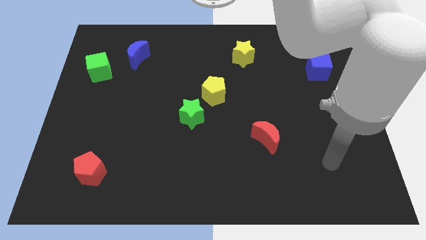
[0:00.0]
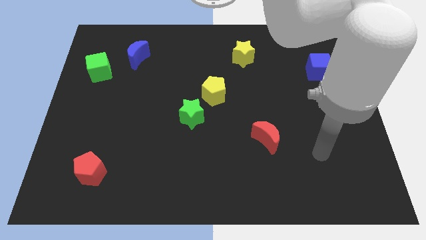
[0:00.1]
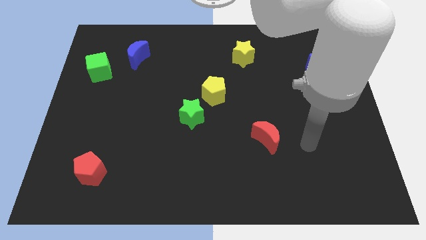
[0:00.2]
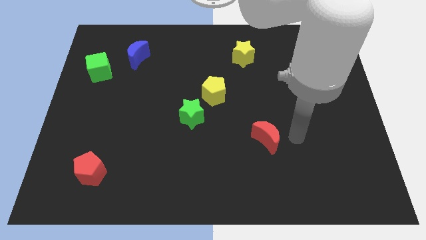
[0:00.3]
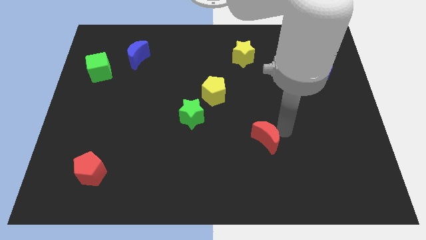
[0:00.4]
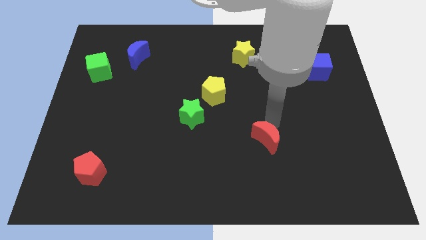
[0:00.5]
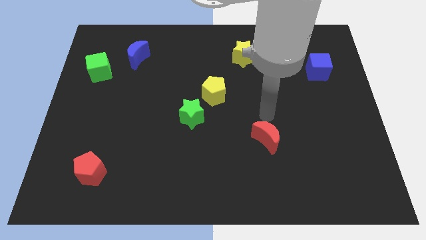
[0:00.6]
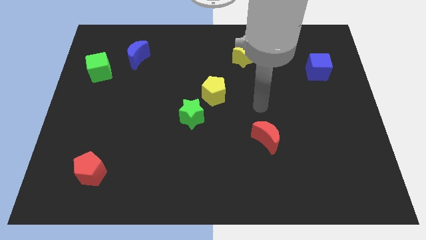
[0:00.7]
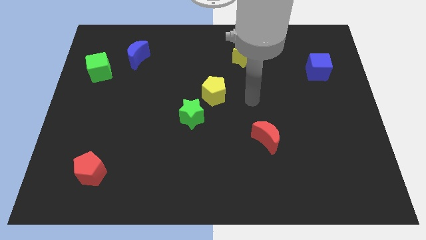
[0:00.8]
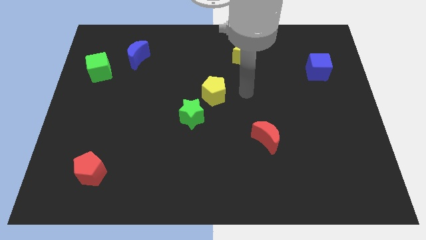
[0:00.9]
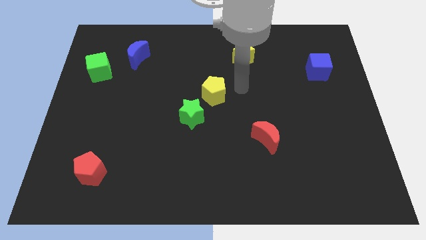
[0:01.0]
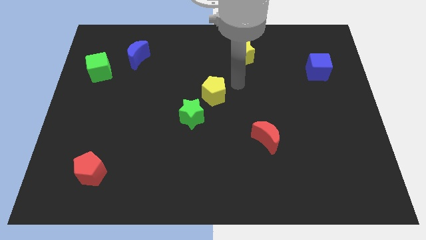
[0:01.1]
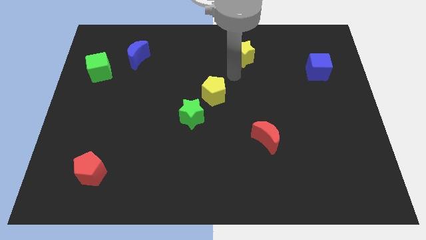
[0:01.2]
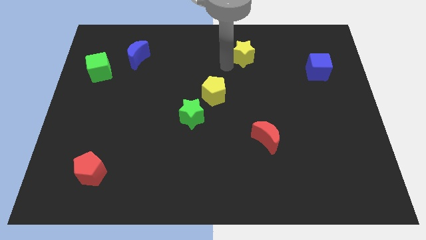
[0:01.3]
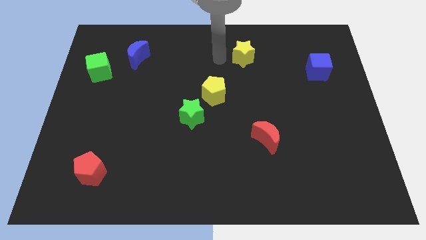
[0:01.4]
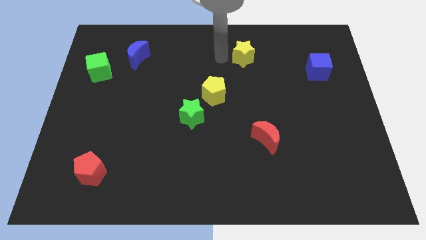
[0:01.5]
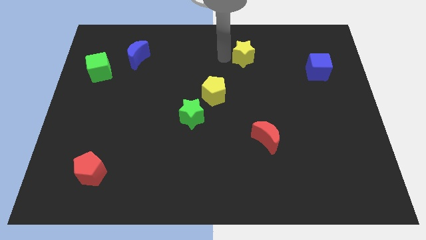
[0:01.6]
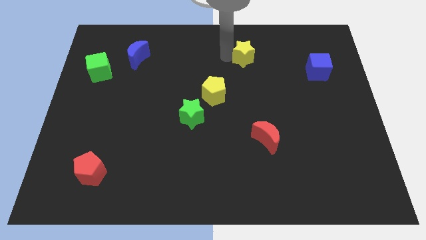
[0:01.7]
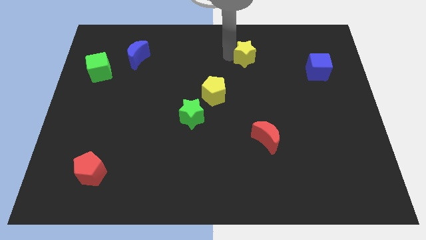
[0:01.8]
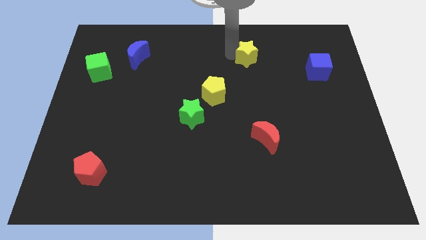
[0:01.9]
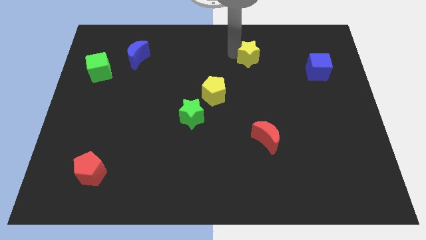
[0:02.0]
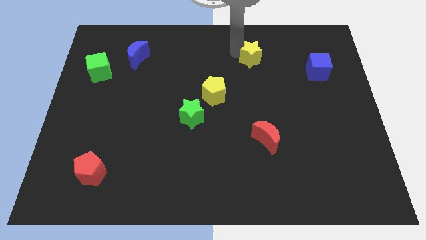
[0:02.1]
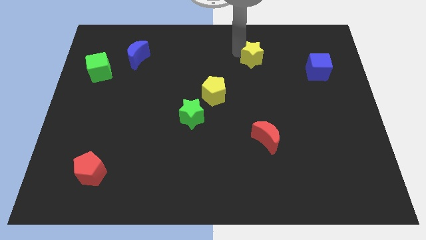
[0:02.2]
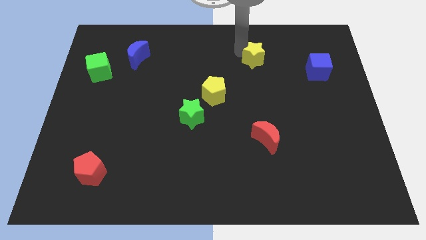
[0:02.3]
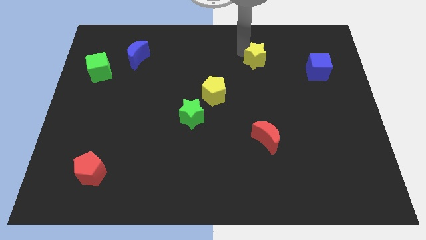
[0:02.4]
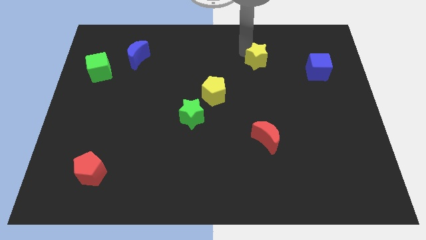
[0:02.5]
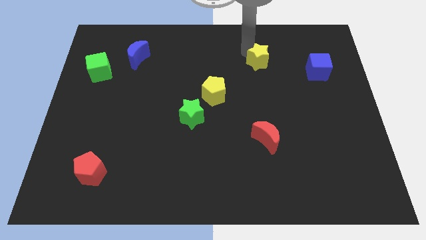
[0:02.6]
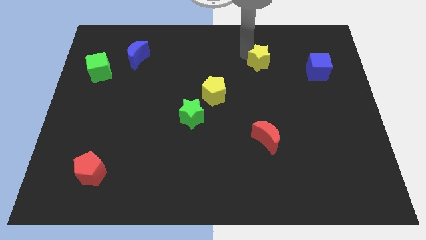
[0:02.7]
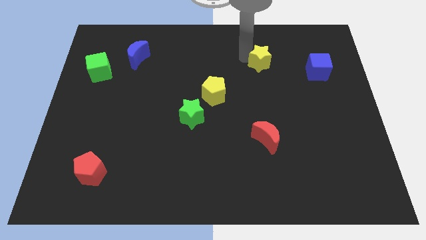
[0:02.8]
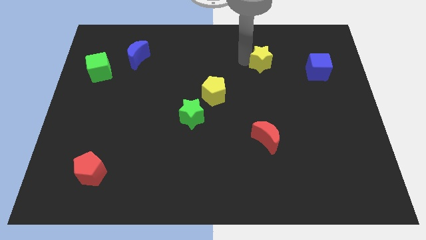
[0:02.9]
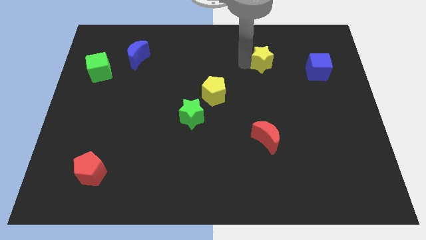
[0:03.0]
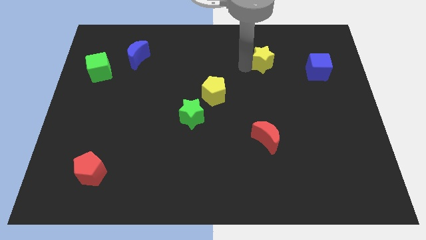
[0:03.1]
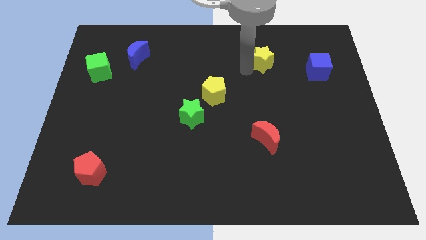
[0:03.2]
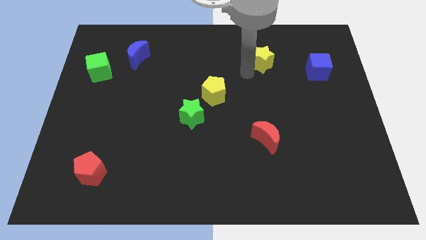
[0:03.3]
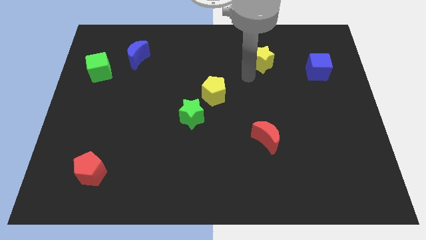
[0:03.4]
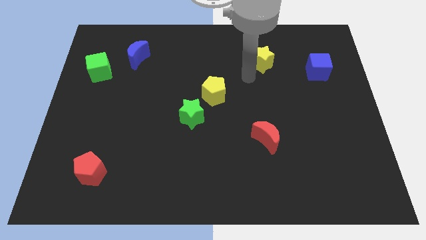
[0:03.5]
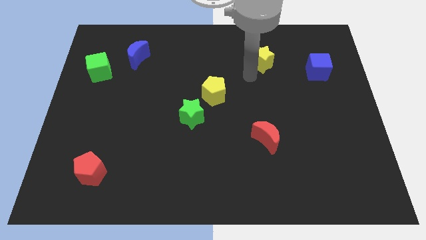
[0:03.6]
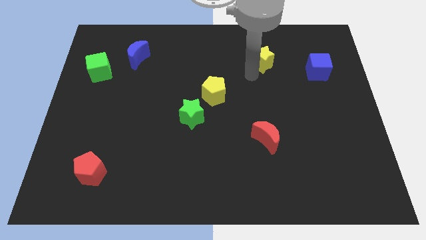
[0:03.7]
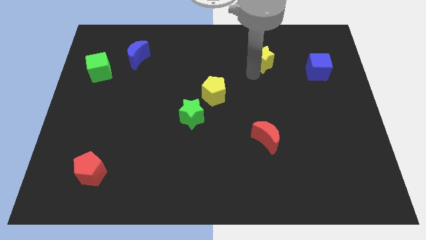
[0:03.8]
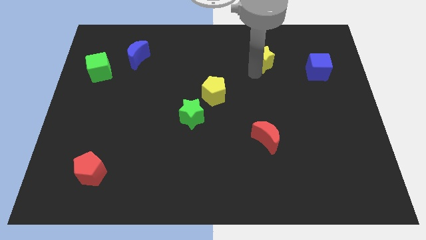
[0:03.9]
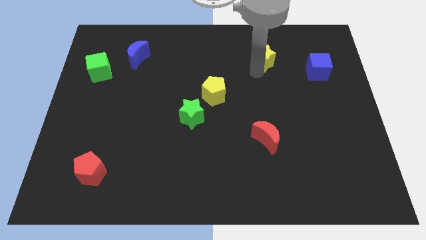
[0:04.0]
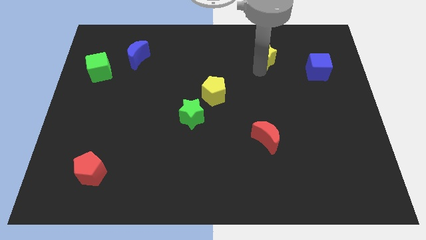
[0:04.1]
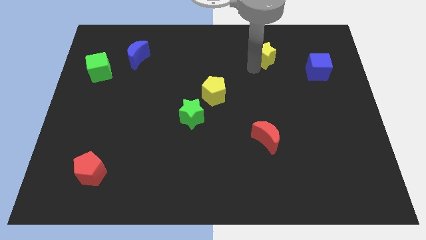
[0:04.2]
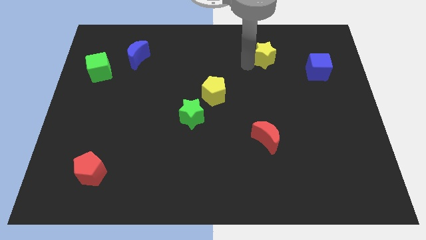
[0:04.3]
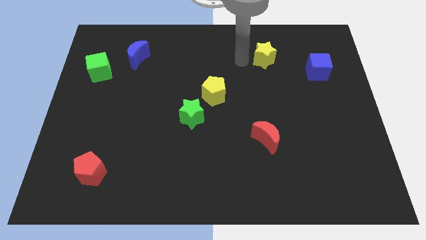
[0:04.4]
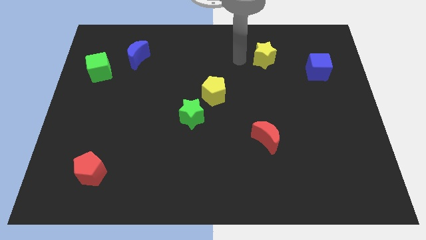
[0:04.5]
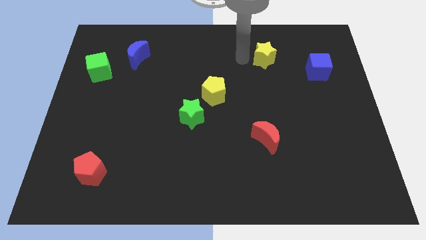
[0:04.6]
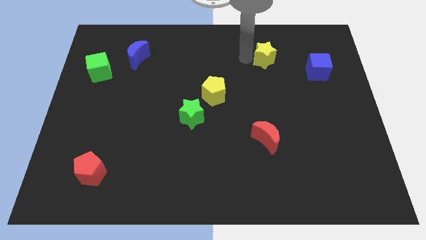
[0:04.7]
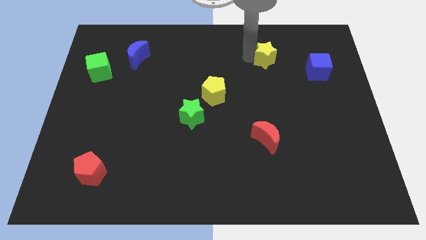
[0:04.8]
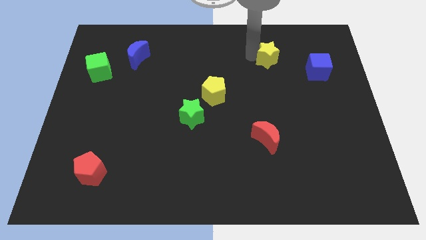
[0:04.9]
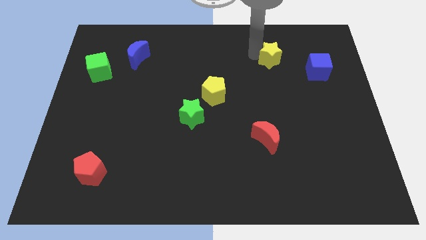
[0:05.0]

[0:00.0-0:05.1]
slightly push the yellow star to the right

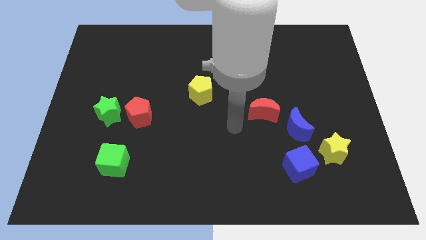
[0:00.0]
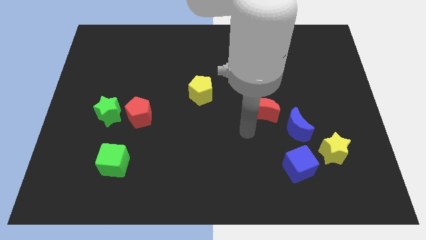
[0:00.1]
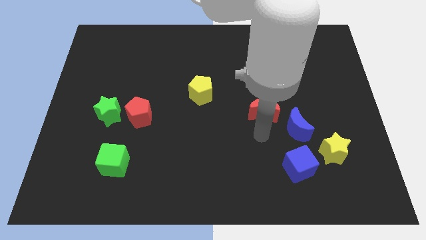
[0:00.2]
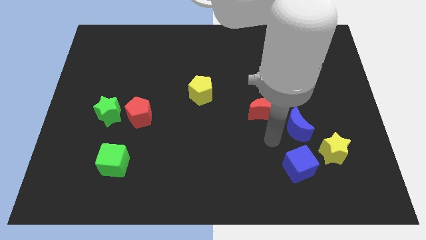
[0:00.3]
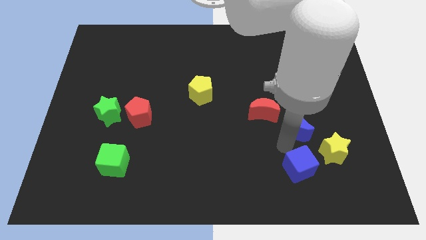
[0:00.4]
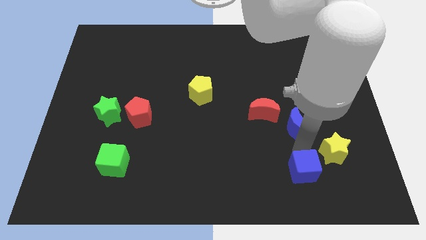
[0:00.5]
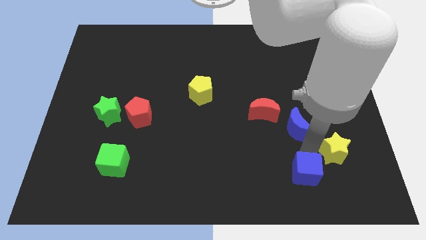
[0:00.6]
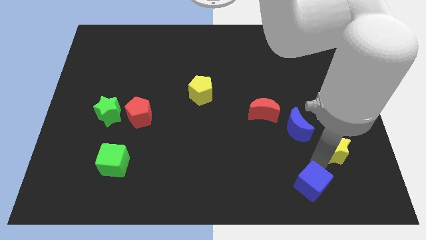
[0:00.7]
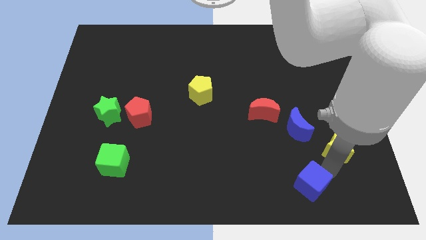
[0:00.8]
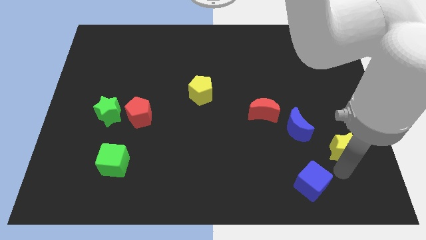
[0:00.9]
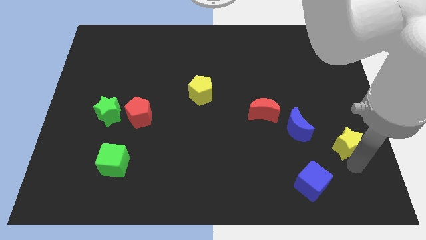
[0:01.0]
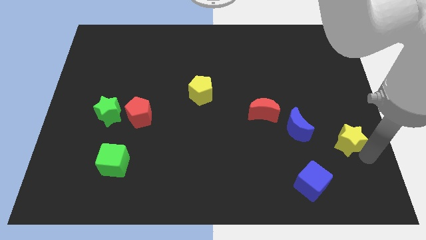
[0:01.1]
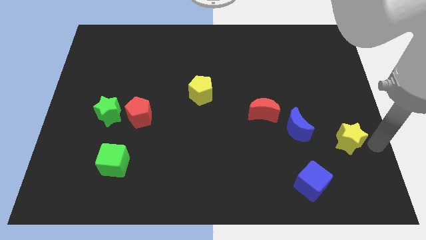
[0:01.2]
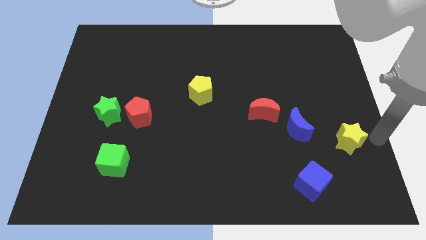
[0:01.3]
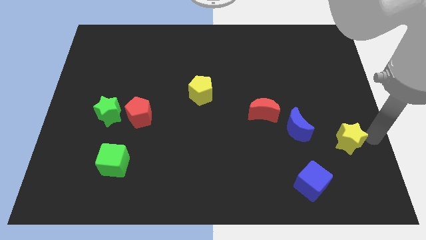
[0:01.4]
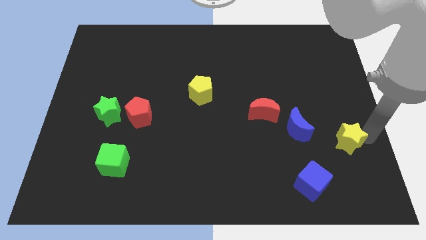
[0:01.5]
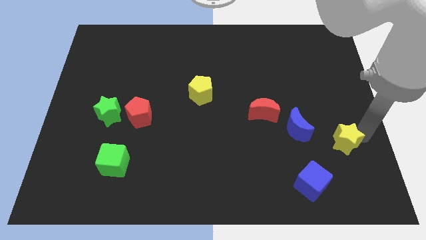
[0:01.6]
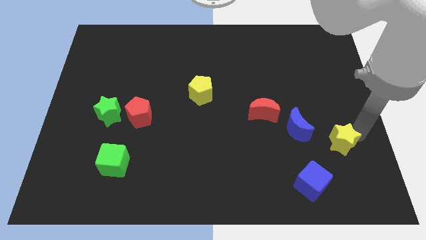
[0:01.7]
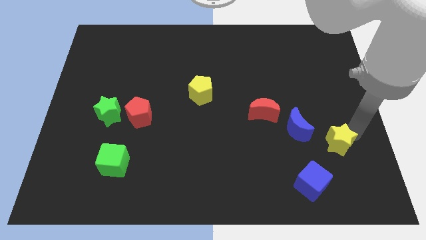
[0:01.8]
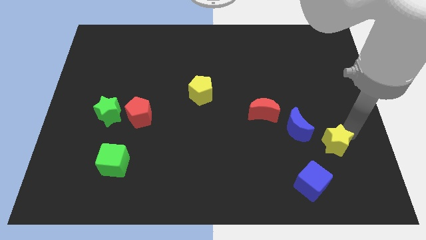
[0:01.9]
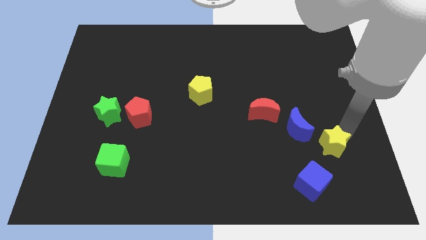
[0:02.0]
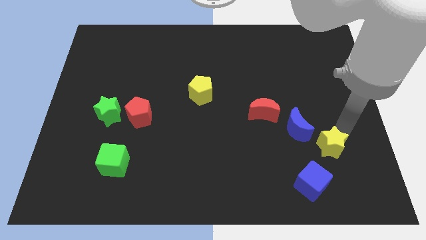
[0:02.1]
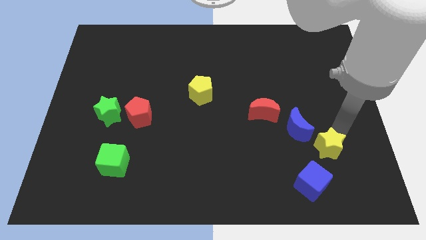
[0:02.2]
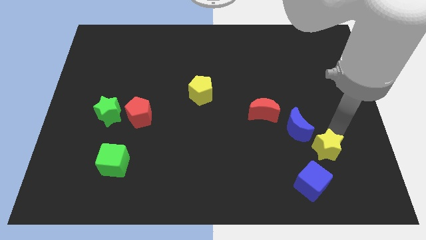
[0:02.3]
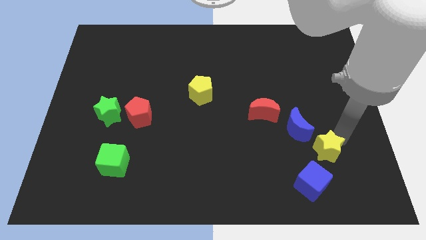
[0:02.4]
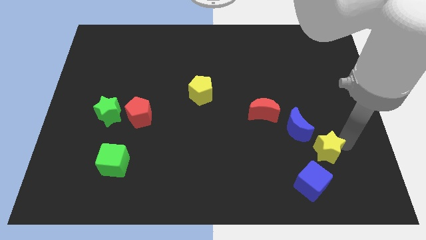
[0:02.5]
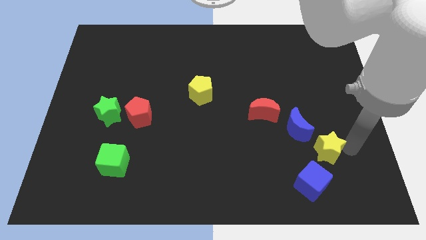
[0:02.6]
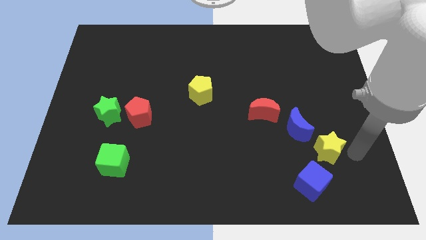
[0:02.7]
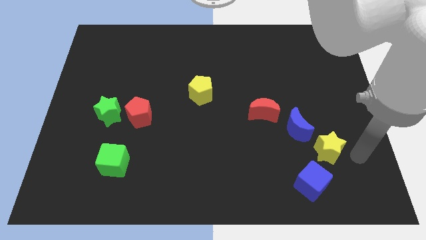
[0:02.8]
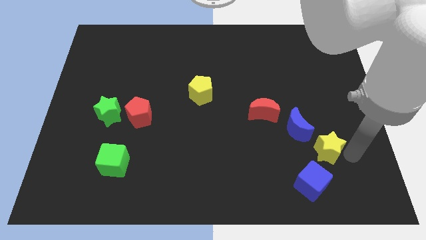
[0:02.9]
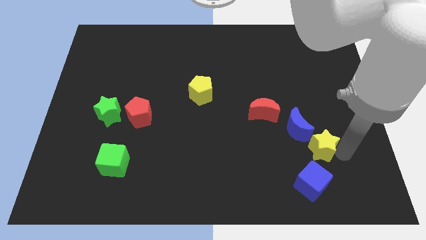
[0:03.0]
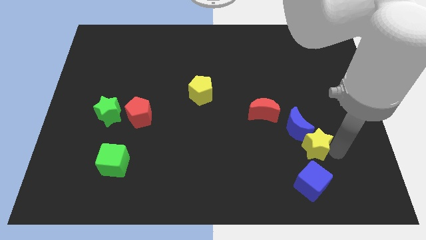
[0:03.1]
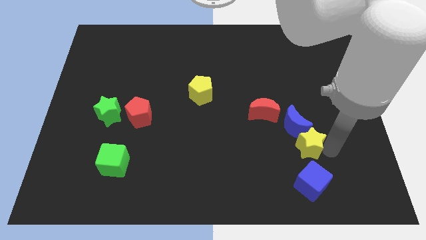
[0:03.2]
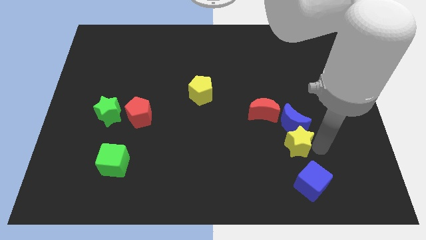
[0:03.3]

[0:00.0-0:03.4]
slide the yellow star to the left a bit
